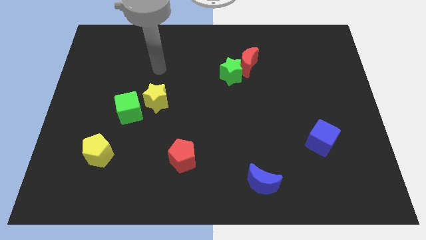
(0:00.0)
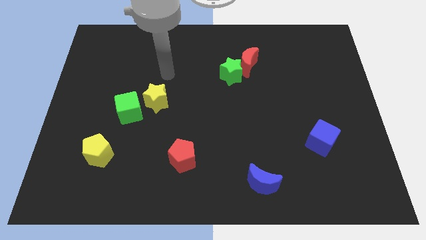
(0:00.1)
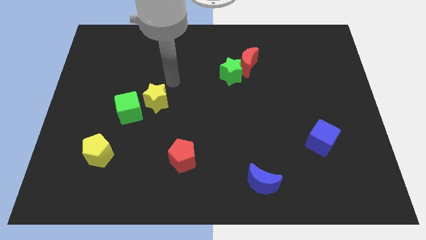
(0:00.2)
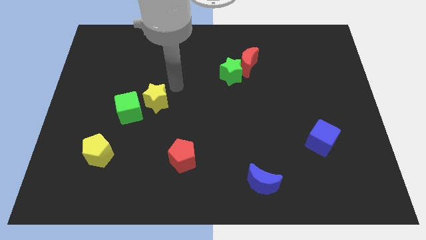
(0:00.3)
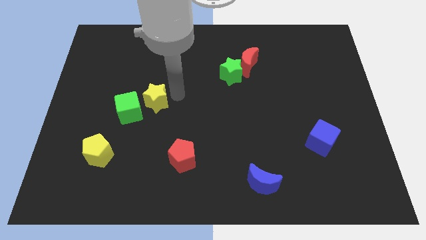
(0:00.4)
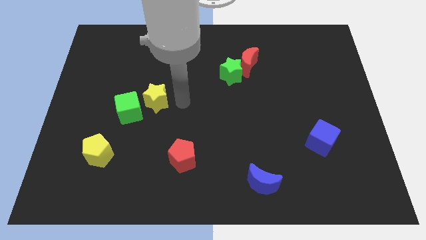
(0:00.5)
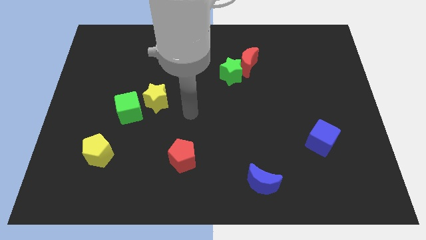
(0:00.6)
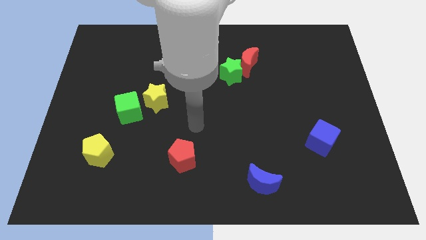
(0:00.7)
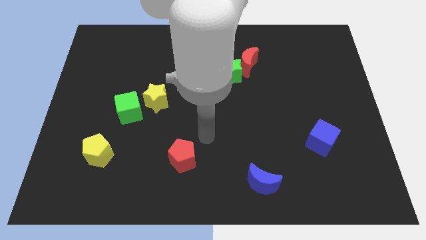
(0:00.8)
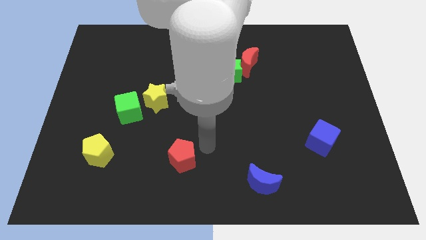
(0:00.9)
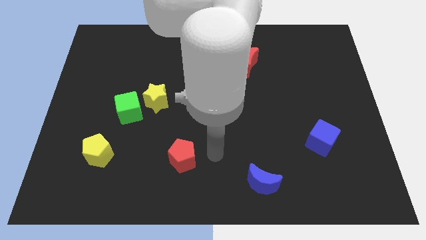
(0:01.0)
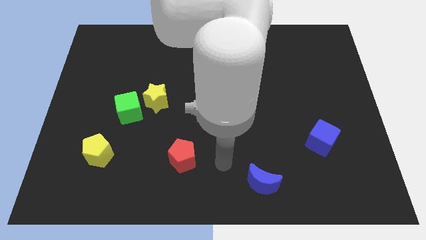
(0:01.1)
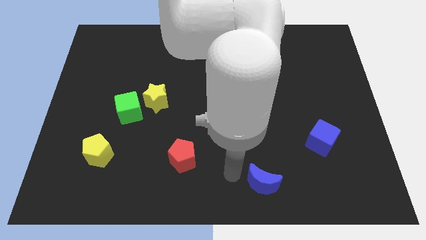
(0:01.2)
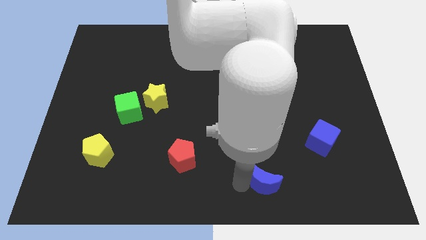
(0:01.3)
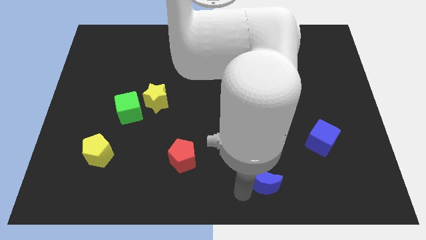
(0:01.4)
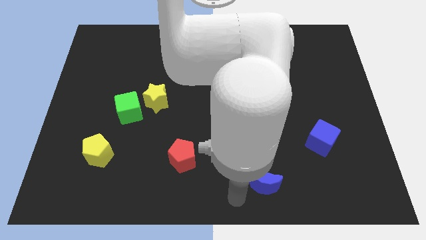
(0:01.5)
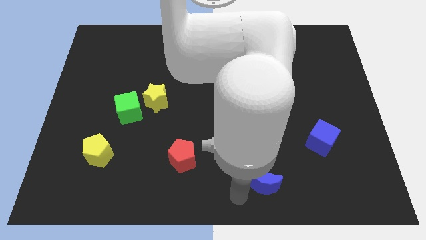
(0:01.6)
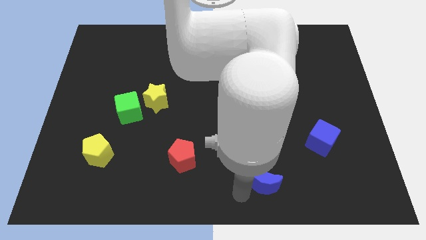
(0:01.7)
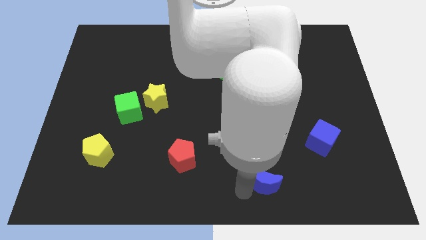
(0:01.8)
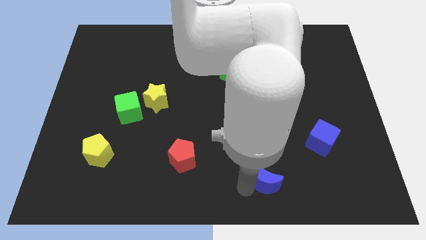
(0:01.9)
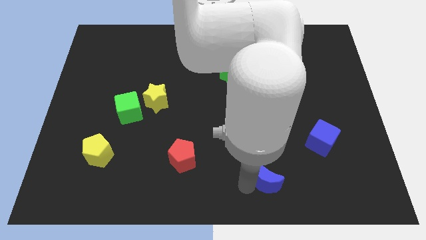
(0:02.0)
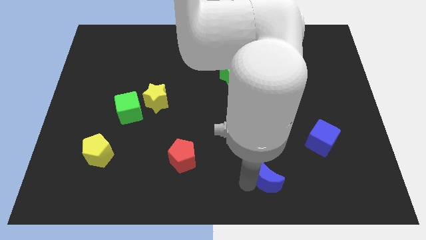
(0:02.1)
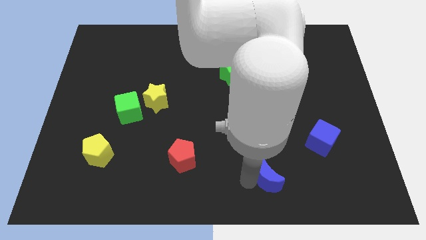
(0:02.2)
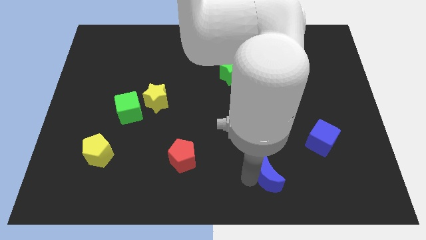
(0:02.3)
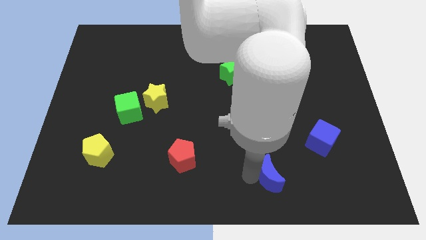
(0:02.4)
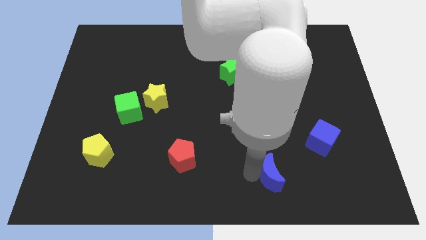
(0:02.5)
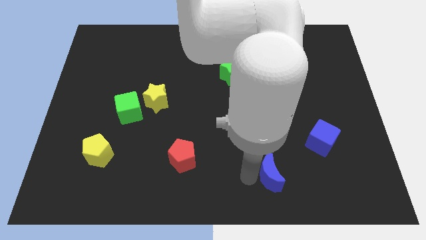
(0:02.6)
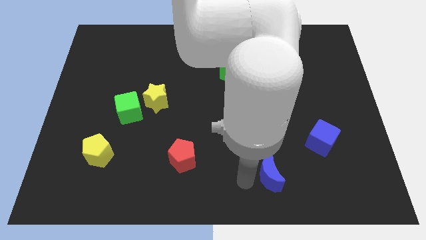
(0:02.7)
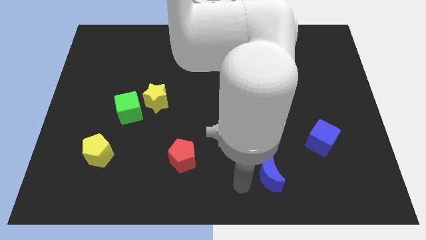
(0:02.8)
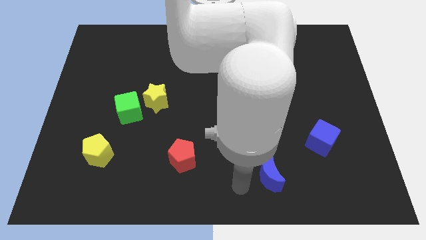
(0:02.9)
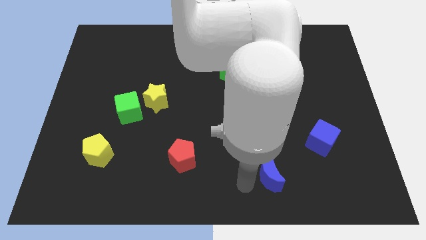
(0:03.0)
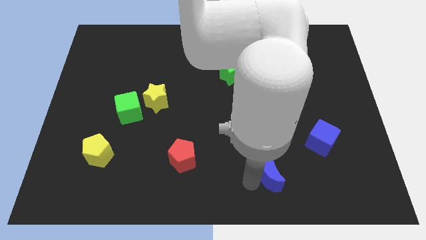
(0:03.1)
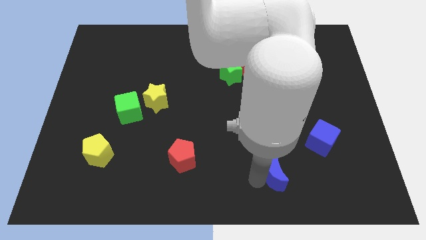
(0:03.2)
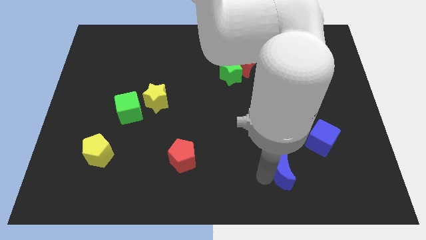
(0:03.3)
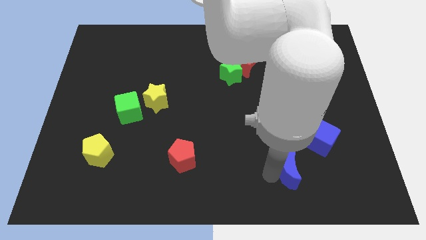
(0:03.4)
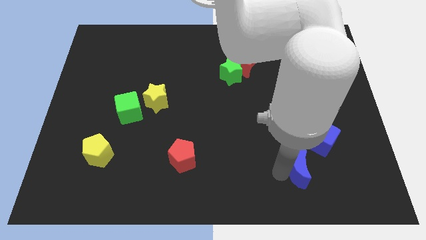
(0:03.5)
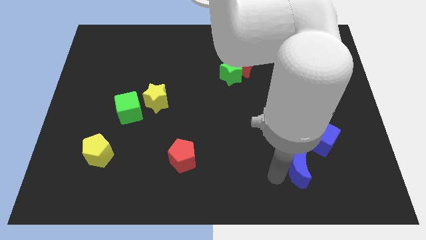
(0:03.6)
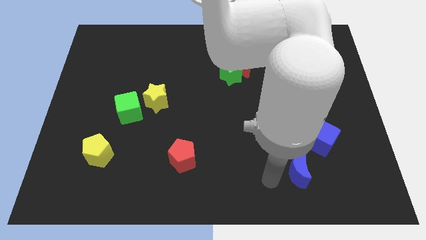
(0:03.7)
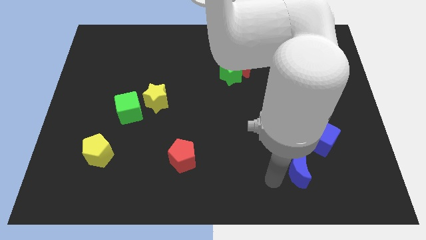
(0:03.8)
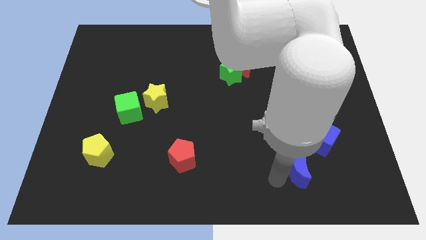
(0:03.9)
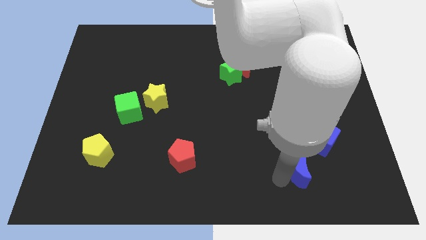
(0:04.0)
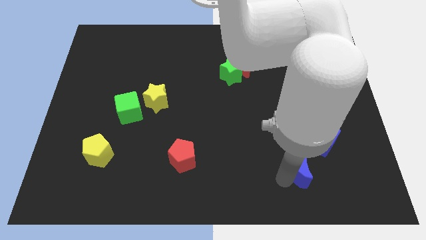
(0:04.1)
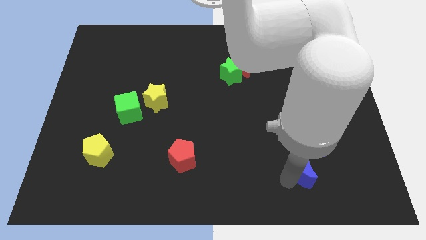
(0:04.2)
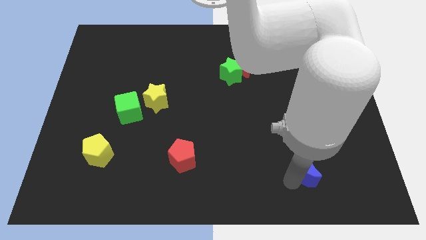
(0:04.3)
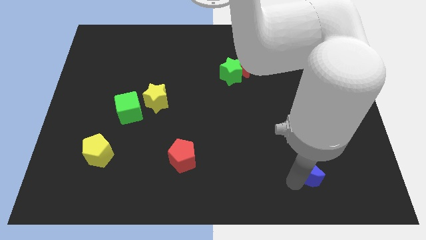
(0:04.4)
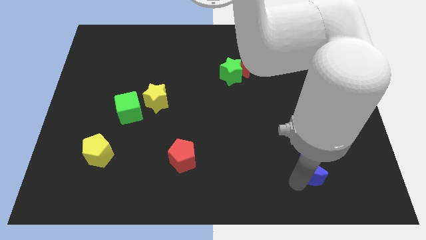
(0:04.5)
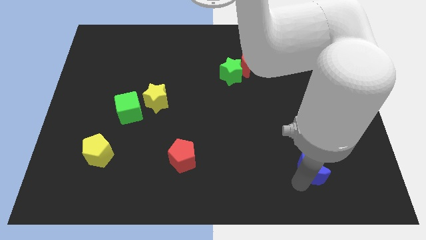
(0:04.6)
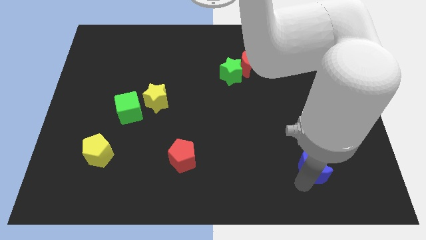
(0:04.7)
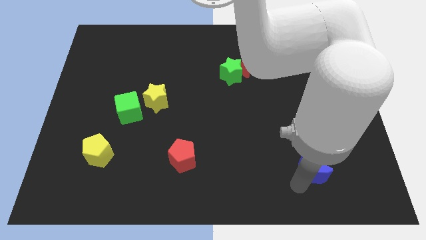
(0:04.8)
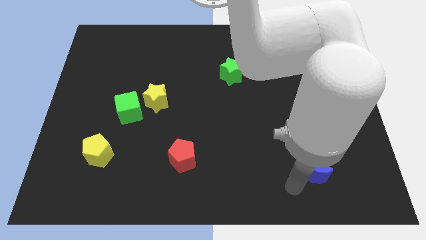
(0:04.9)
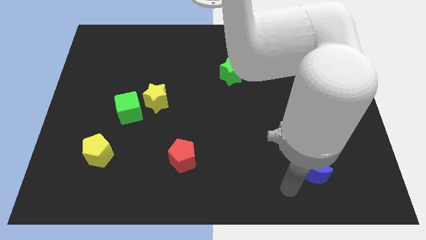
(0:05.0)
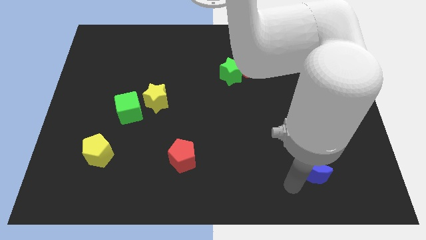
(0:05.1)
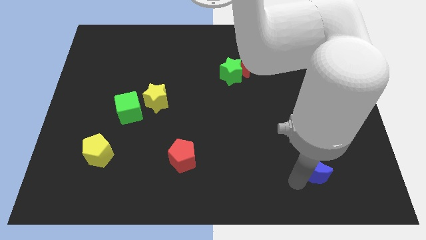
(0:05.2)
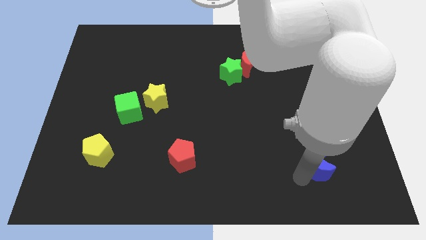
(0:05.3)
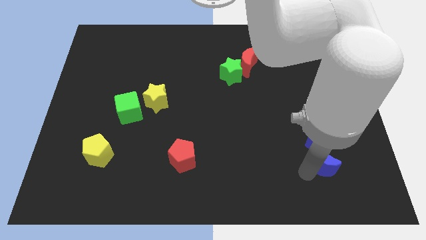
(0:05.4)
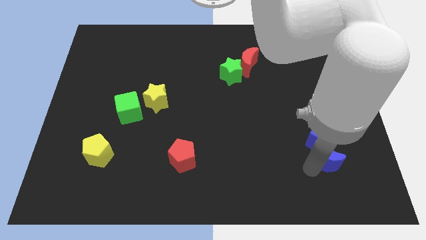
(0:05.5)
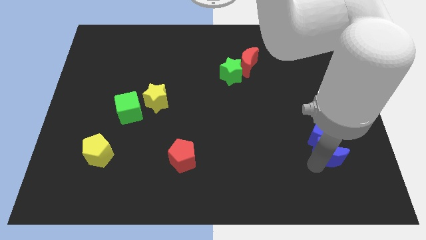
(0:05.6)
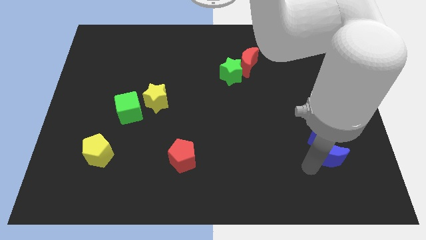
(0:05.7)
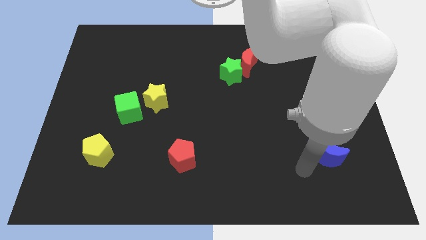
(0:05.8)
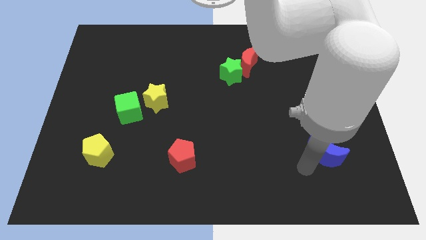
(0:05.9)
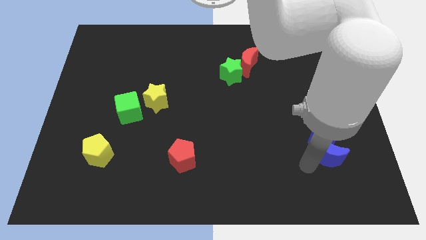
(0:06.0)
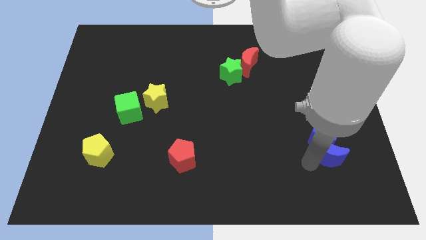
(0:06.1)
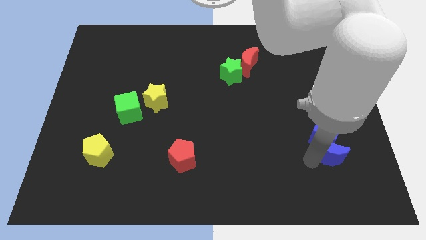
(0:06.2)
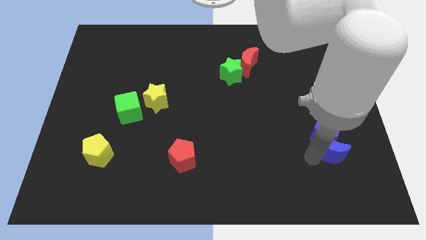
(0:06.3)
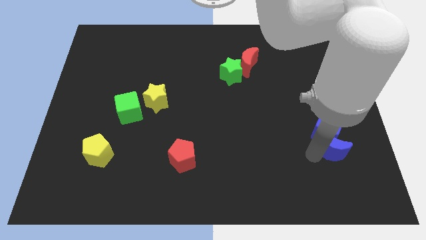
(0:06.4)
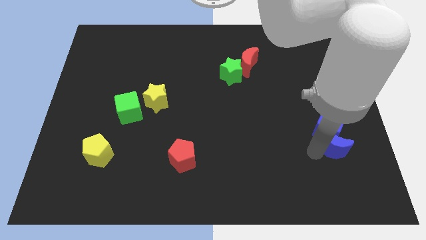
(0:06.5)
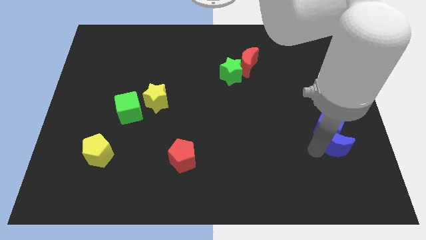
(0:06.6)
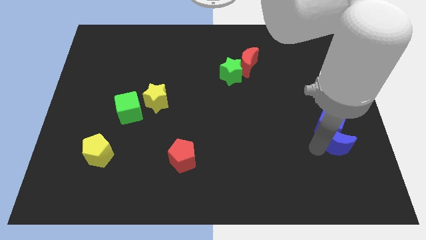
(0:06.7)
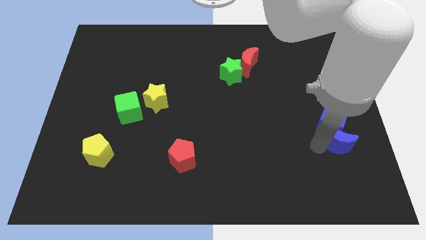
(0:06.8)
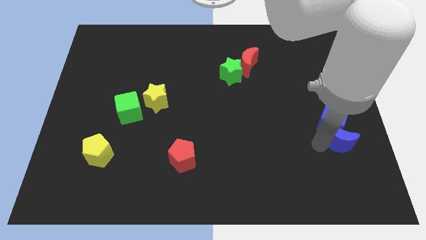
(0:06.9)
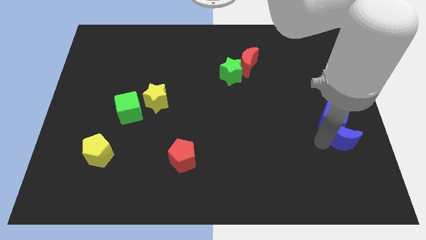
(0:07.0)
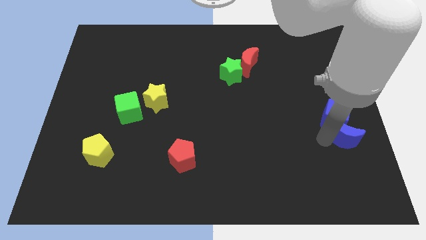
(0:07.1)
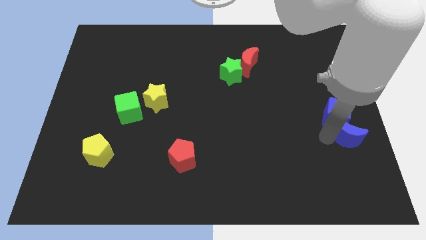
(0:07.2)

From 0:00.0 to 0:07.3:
push the blue moon to the center right
